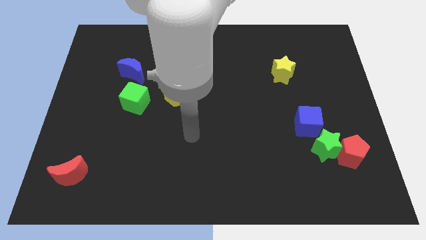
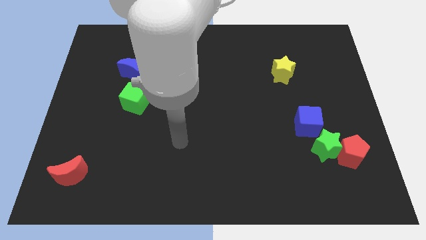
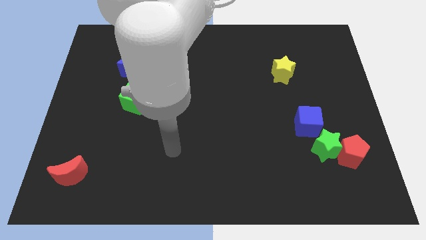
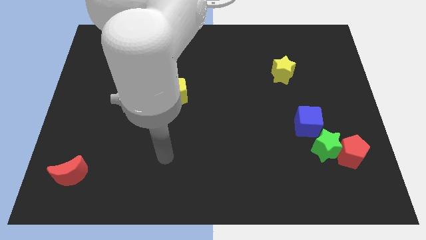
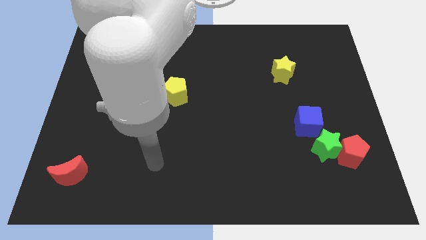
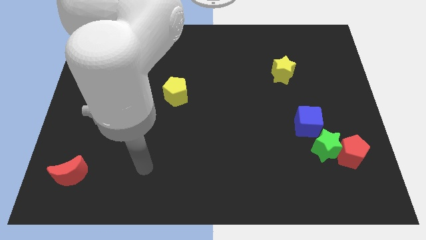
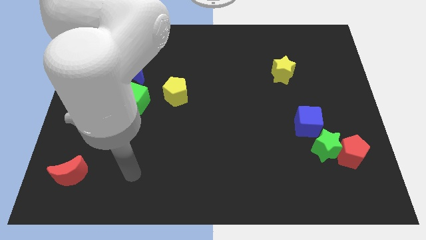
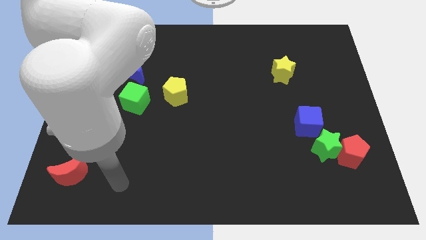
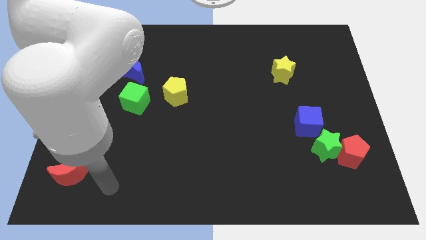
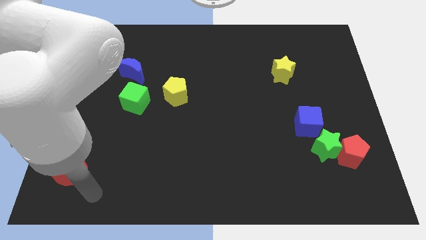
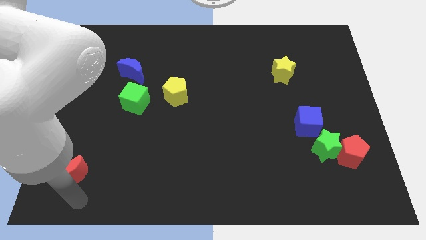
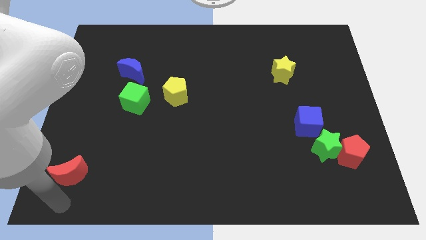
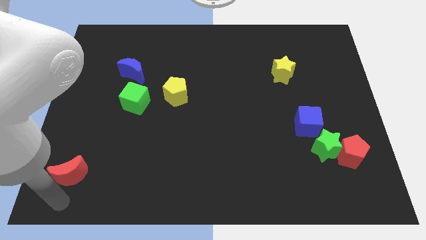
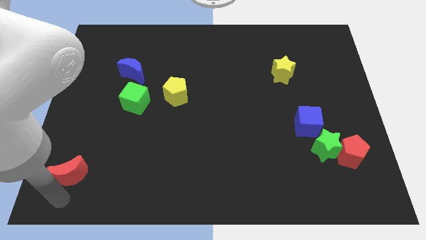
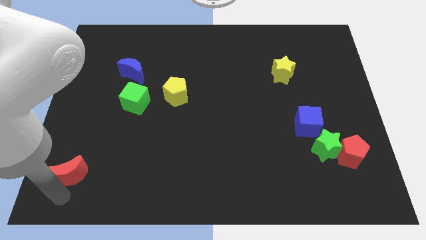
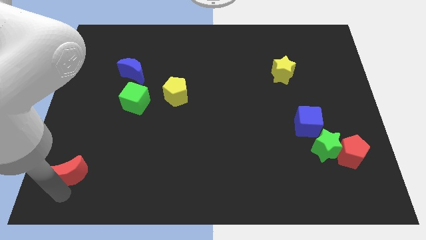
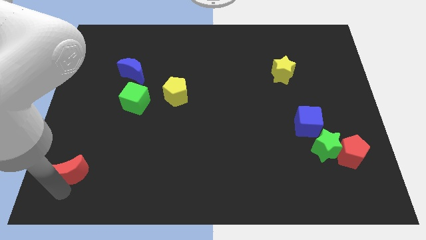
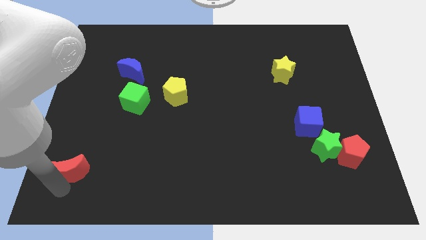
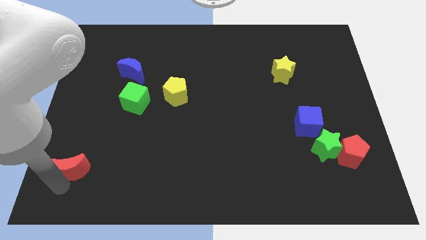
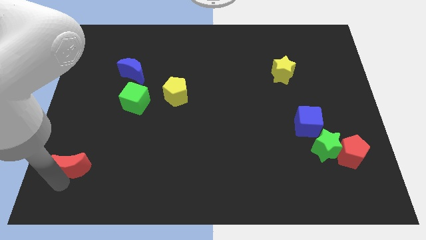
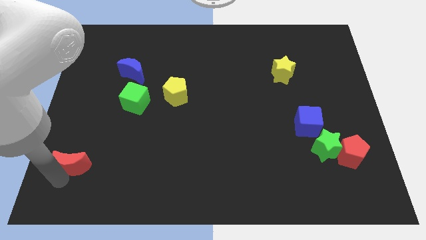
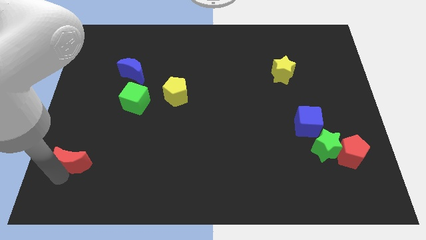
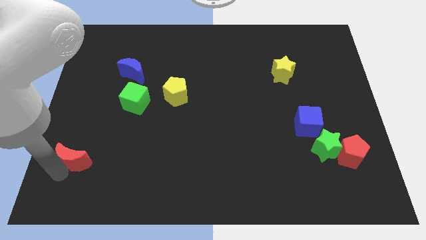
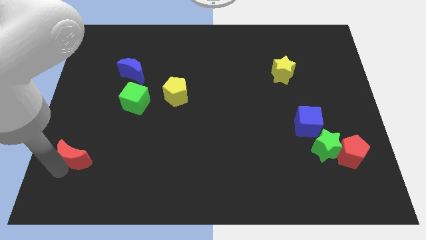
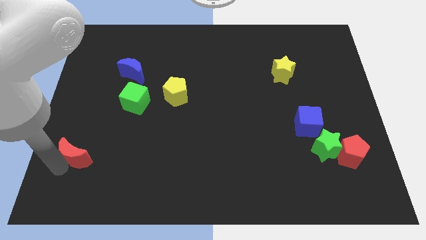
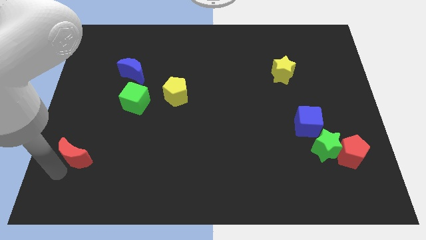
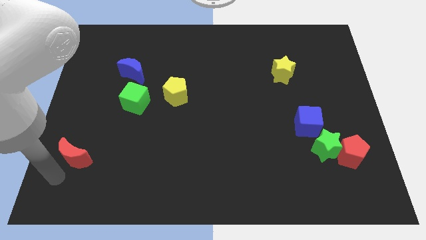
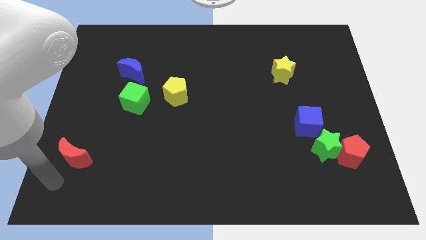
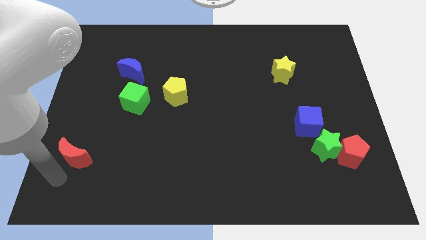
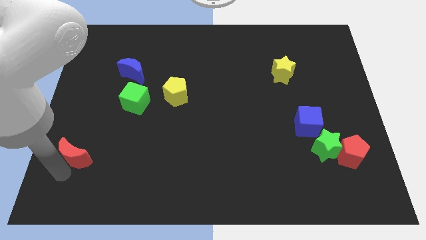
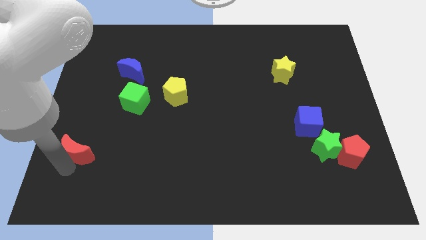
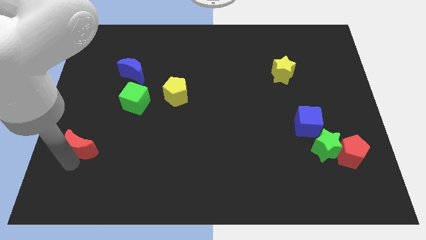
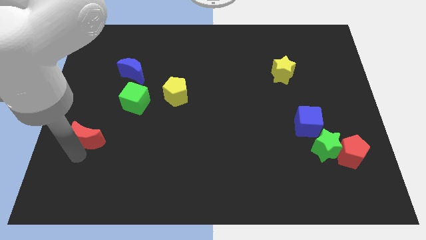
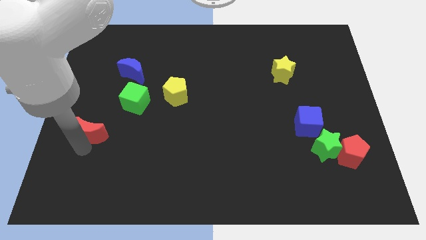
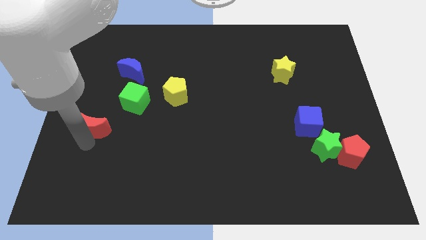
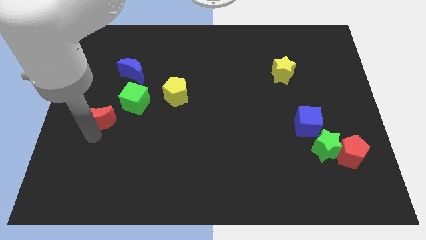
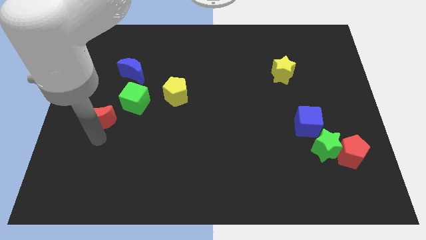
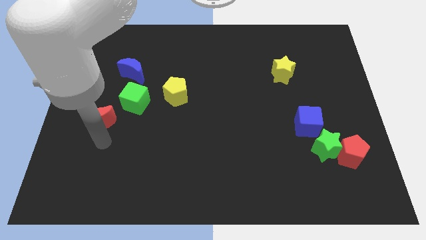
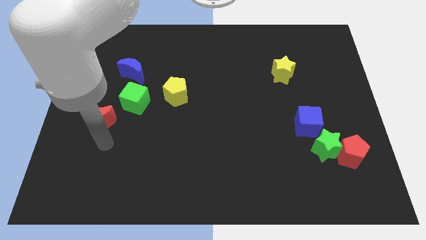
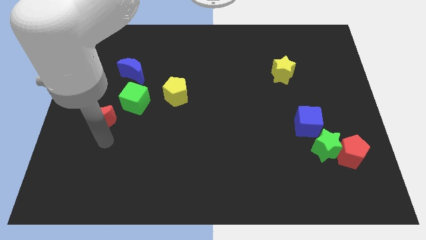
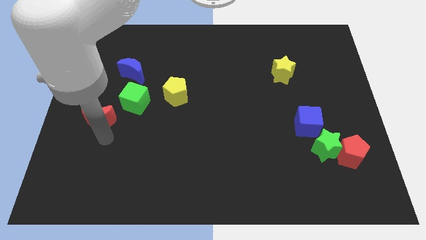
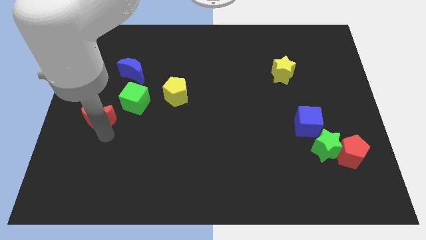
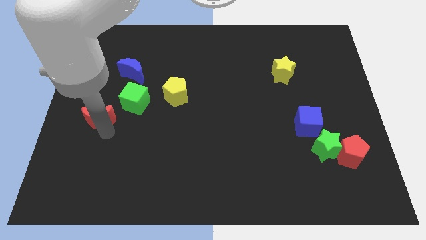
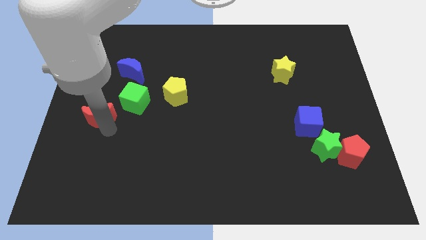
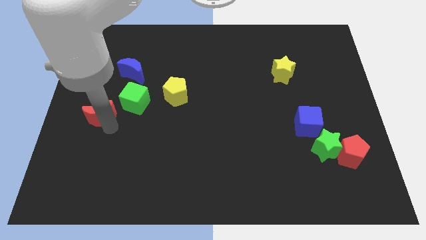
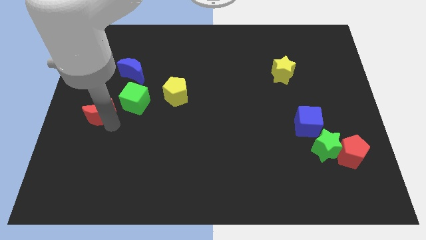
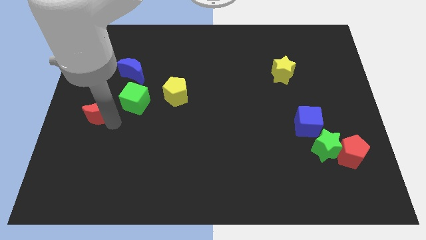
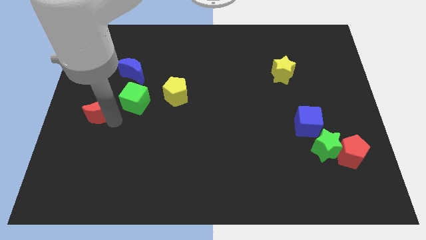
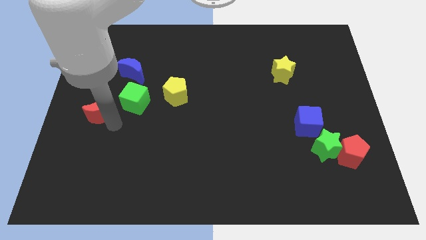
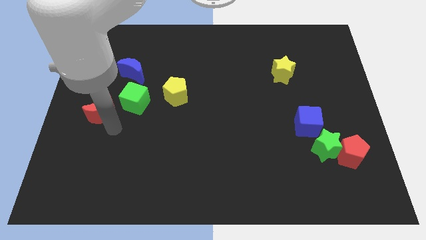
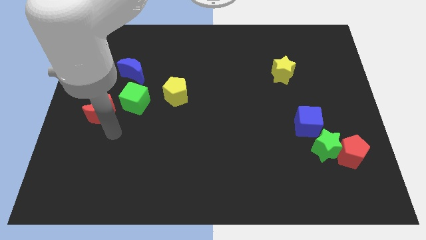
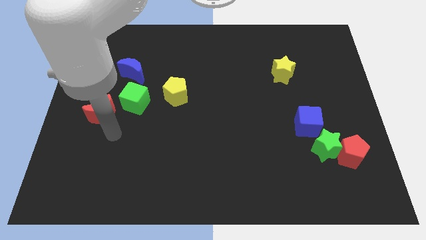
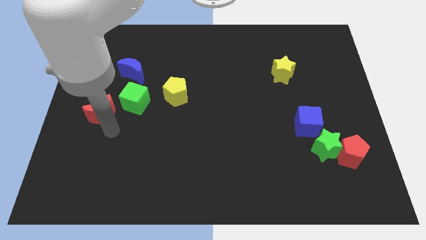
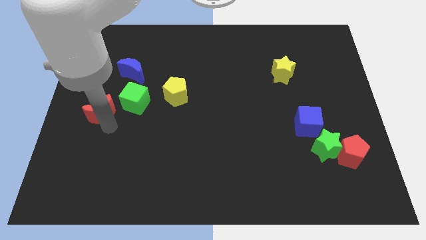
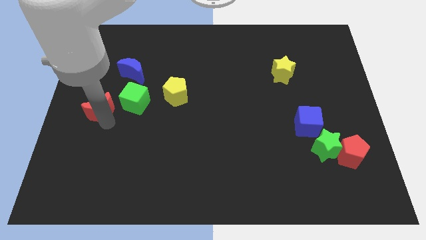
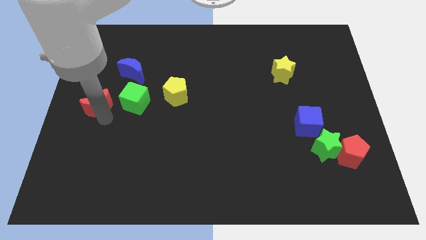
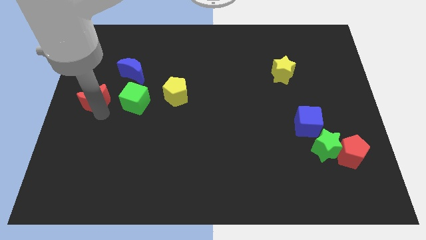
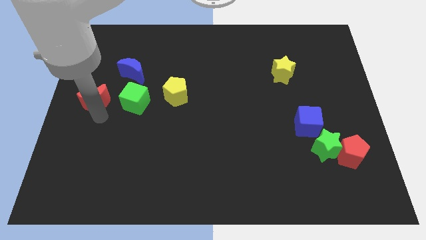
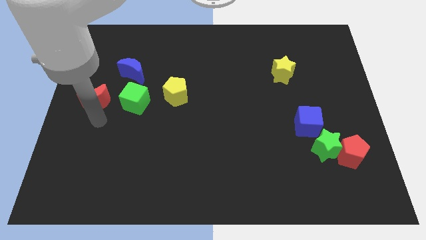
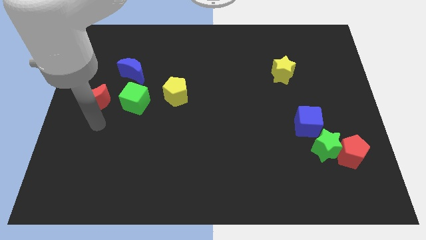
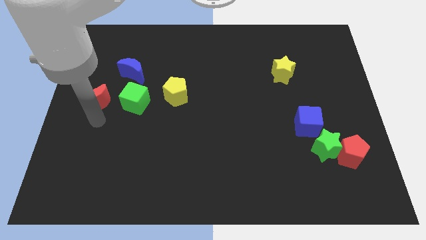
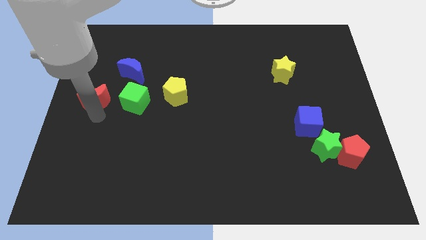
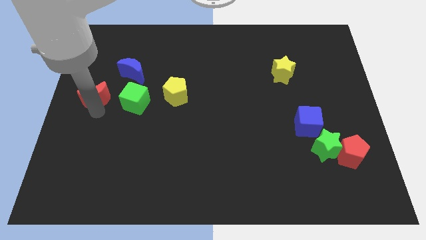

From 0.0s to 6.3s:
push the red moon up

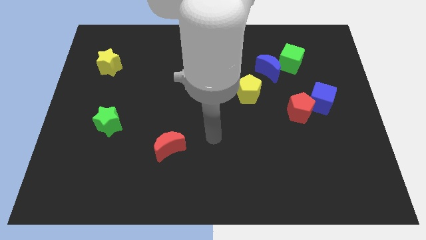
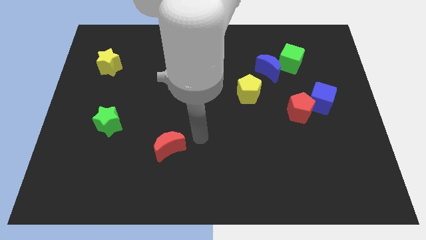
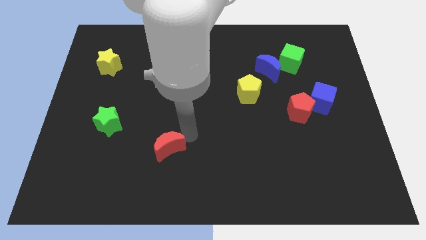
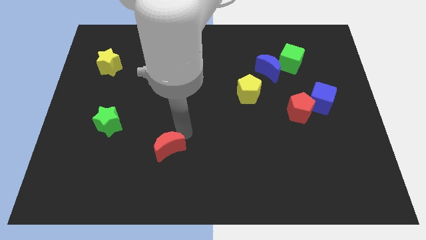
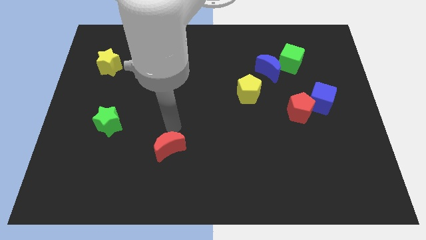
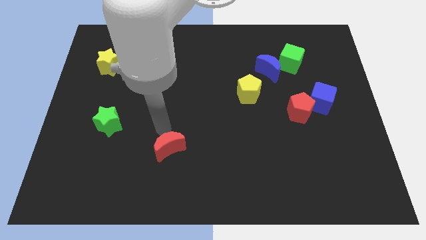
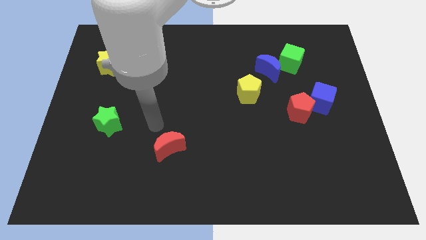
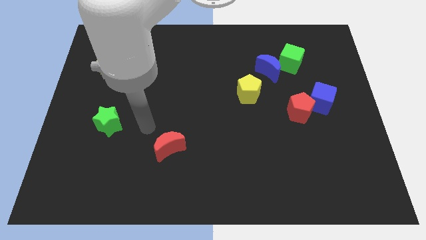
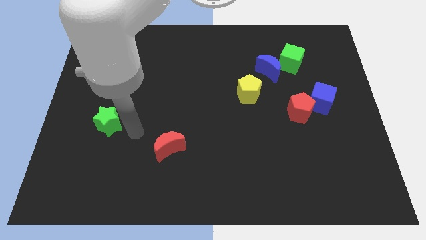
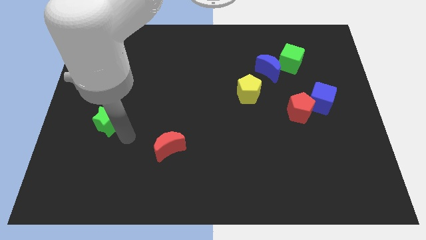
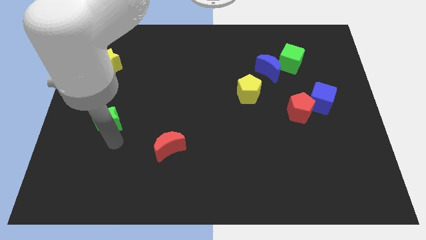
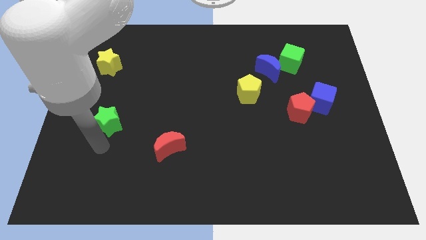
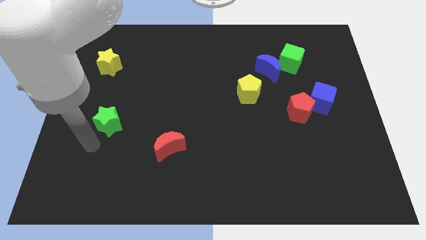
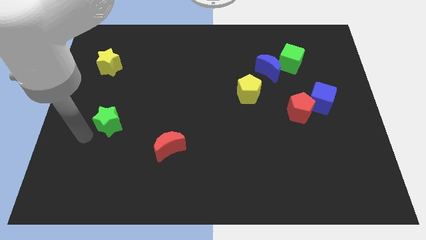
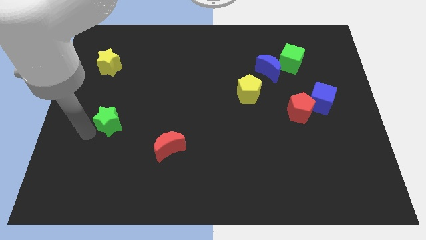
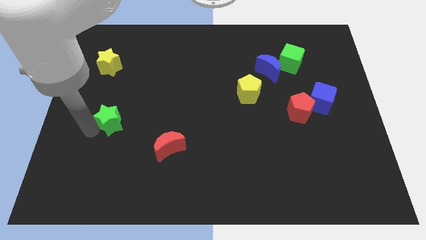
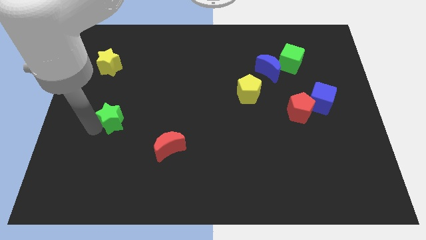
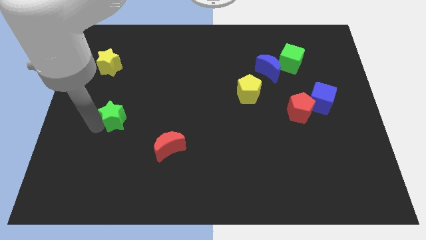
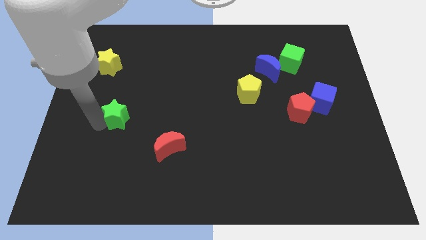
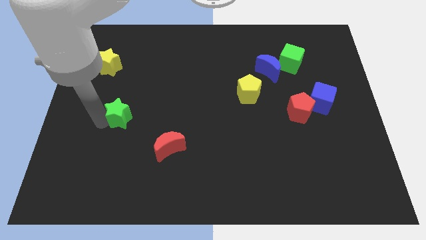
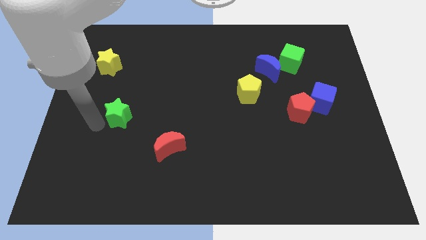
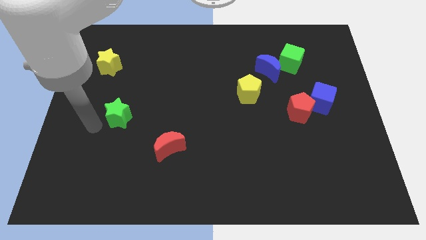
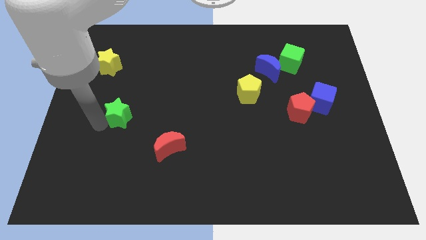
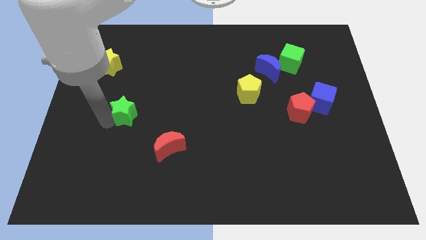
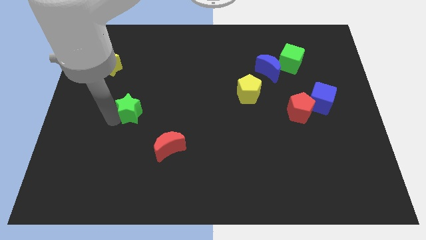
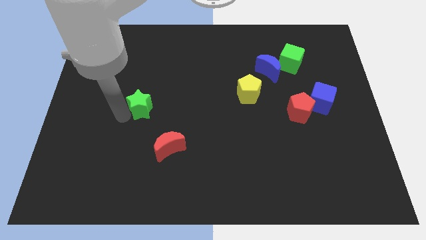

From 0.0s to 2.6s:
move the green star up and to the right a little
